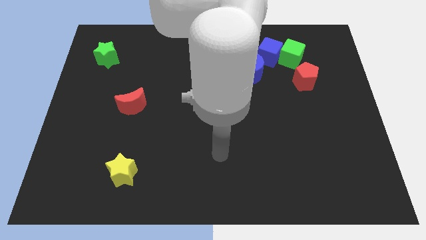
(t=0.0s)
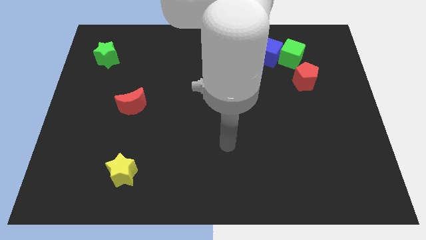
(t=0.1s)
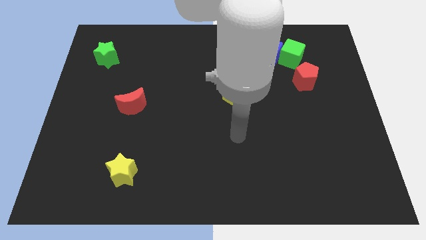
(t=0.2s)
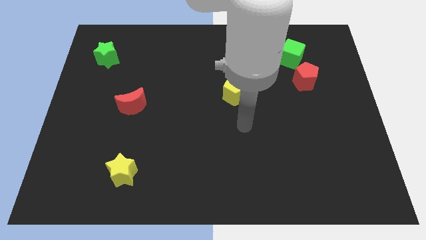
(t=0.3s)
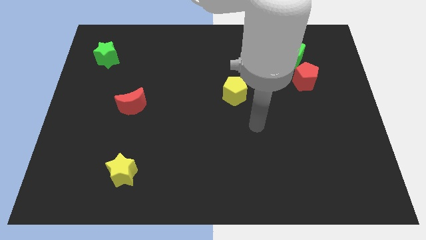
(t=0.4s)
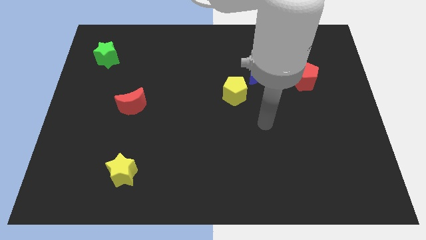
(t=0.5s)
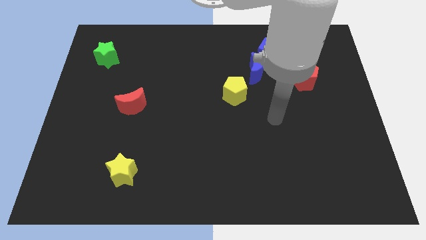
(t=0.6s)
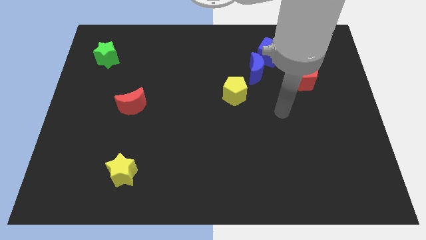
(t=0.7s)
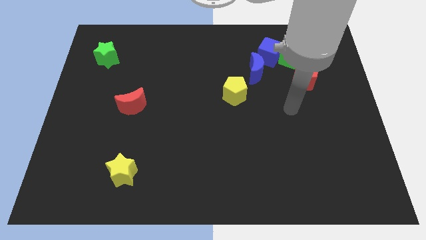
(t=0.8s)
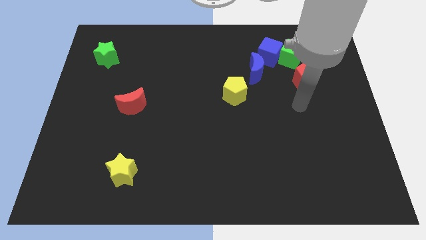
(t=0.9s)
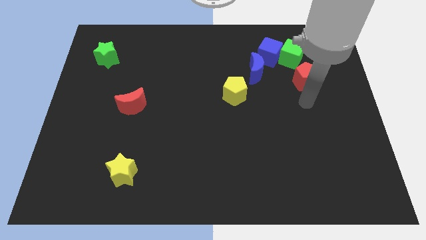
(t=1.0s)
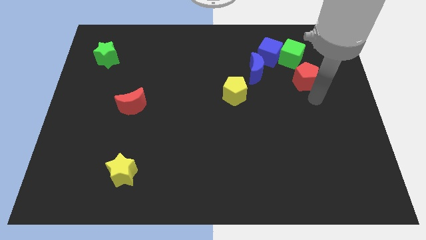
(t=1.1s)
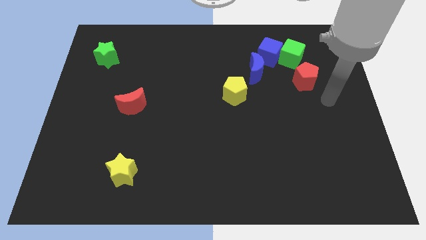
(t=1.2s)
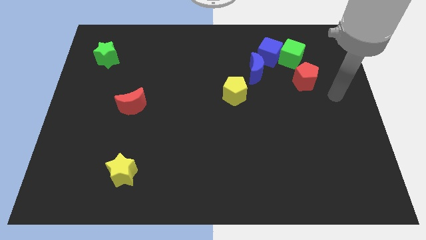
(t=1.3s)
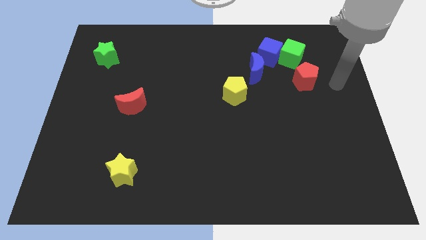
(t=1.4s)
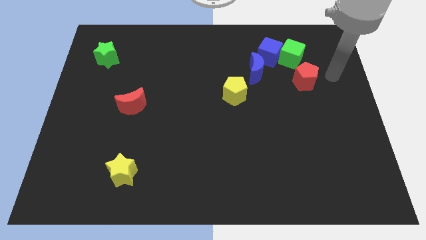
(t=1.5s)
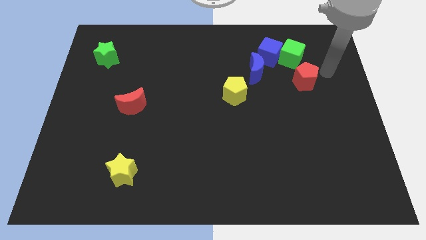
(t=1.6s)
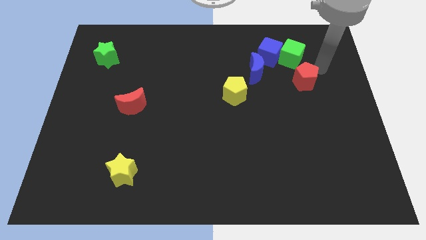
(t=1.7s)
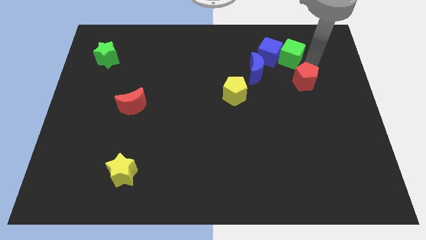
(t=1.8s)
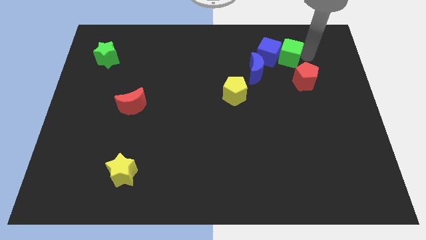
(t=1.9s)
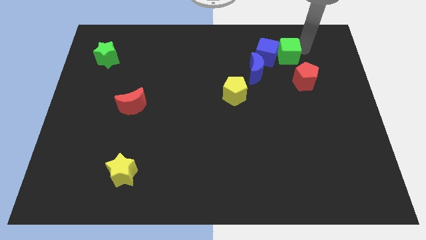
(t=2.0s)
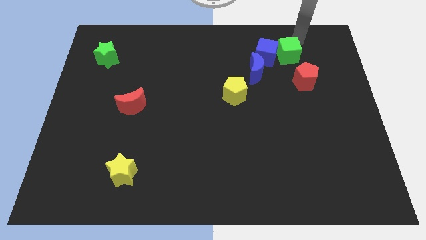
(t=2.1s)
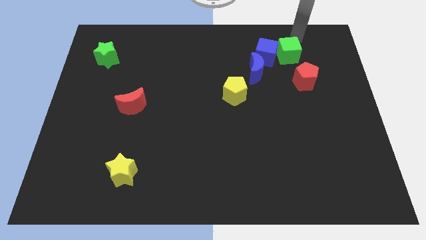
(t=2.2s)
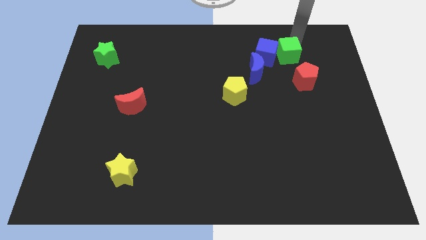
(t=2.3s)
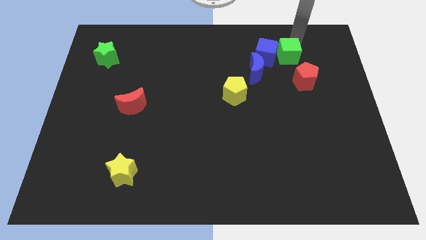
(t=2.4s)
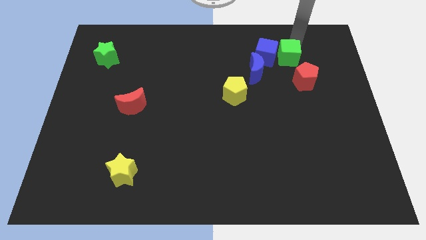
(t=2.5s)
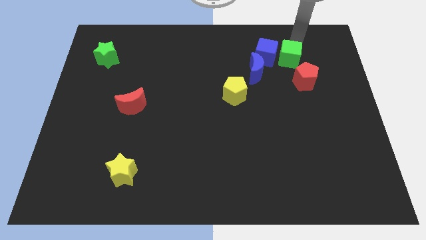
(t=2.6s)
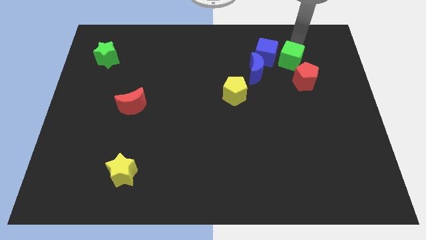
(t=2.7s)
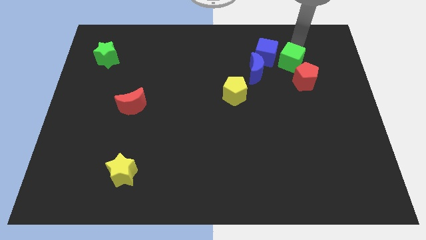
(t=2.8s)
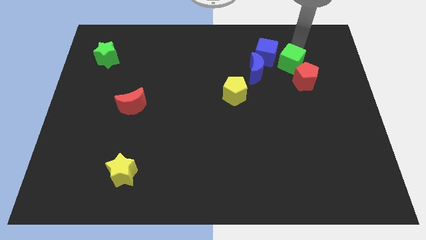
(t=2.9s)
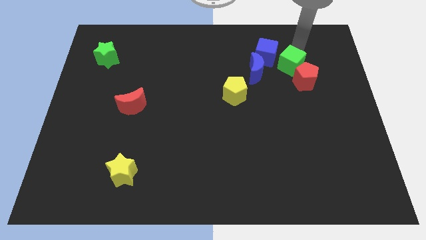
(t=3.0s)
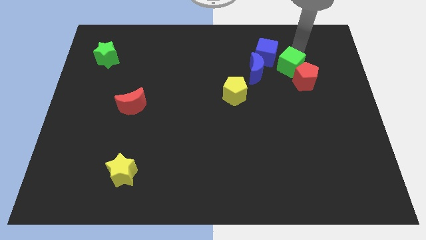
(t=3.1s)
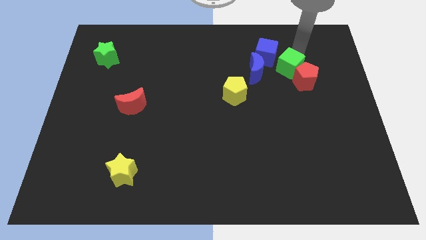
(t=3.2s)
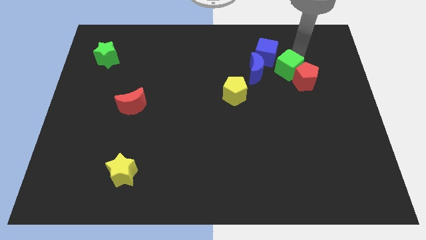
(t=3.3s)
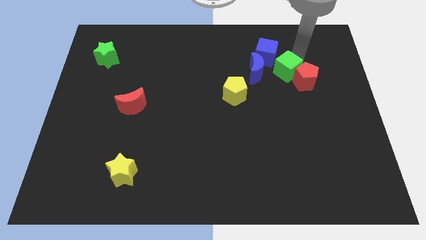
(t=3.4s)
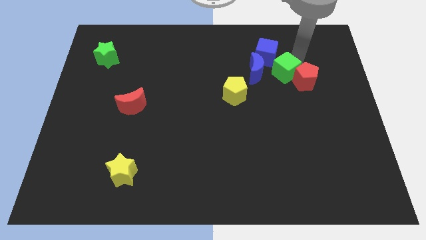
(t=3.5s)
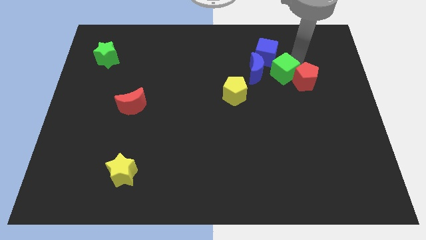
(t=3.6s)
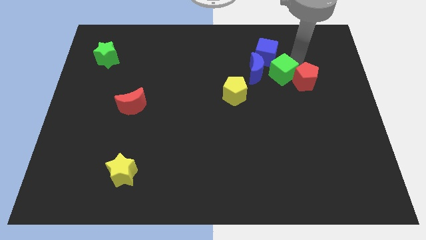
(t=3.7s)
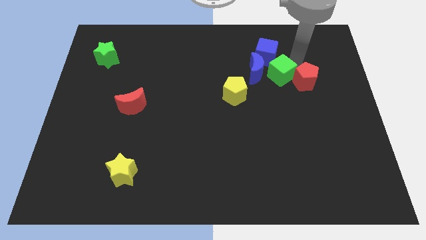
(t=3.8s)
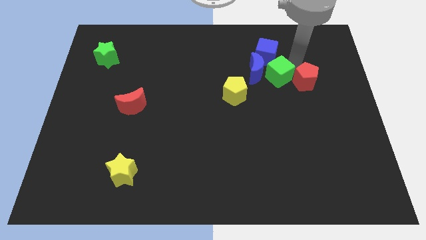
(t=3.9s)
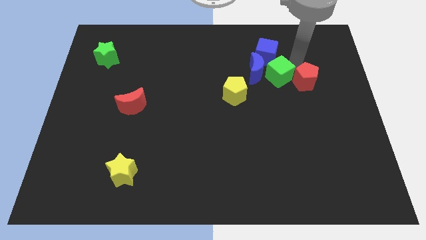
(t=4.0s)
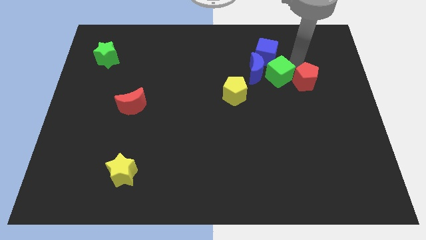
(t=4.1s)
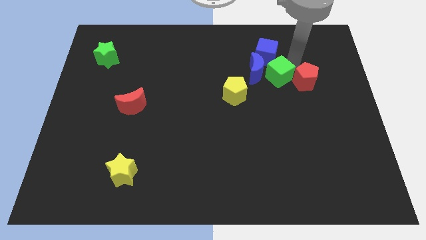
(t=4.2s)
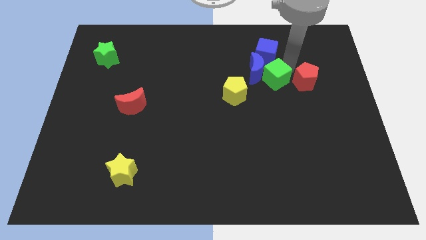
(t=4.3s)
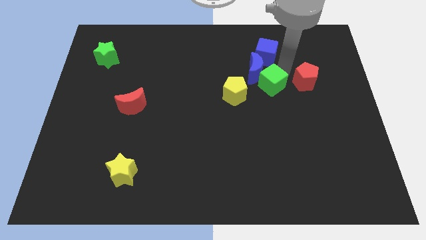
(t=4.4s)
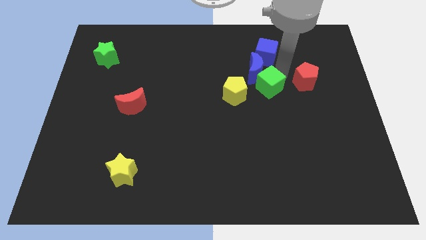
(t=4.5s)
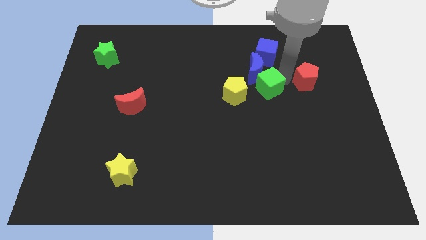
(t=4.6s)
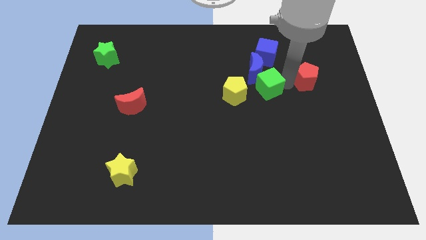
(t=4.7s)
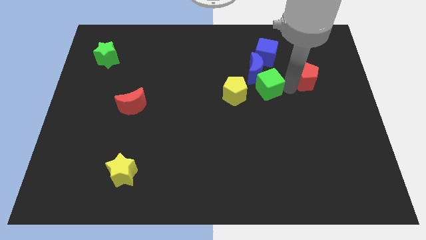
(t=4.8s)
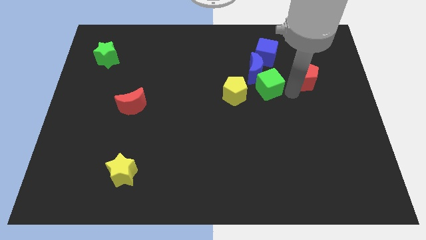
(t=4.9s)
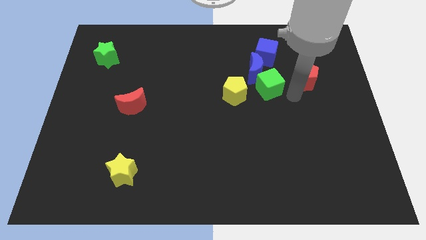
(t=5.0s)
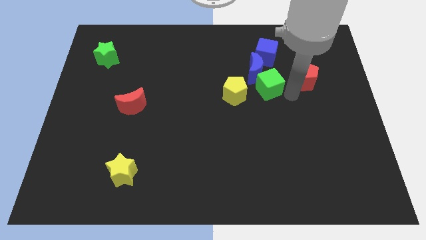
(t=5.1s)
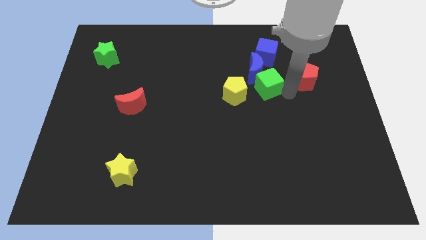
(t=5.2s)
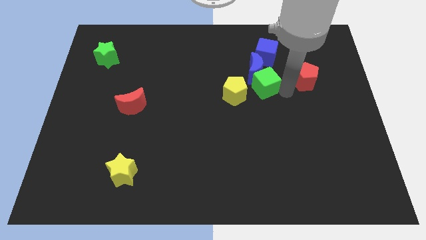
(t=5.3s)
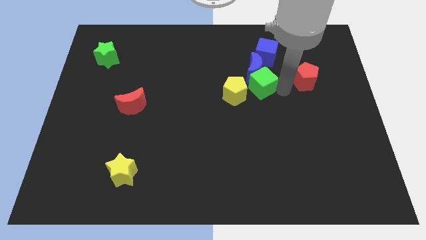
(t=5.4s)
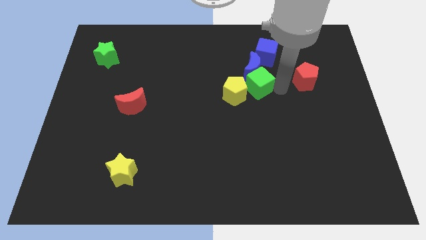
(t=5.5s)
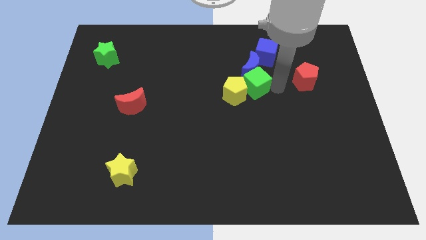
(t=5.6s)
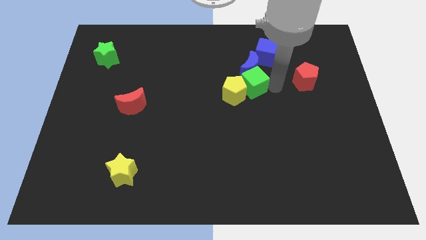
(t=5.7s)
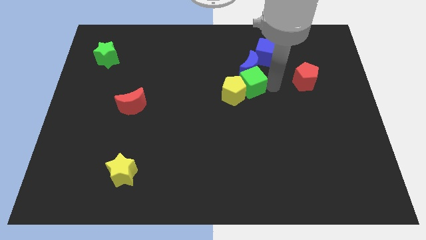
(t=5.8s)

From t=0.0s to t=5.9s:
put the green cube to the bottom left of the blue cube

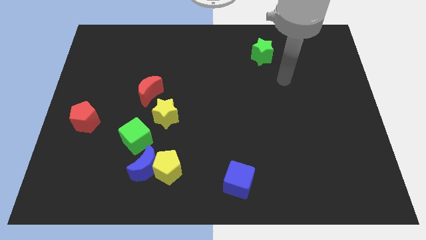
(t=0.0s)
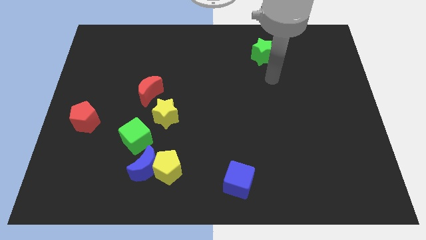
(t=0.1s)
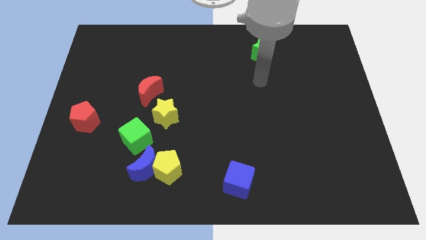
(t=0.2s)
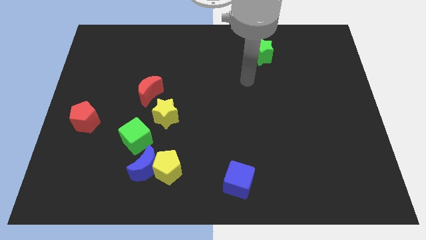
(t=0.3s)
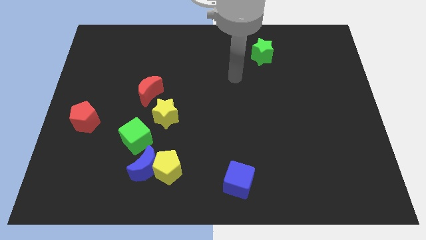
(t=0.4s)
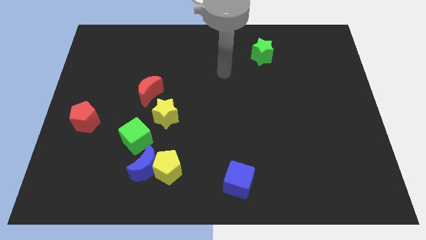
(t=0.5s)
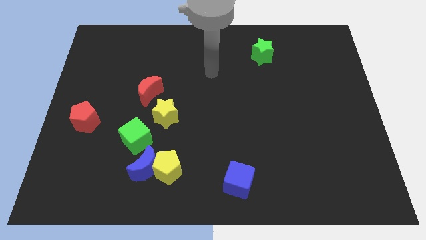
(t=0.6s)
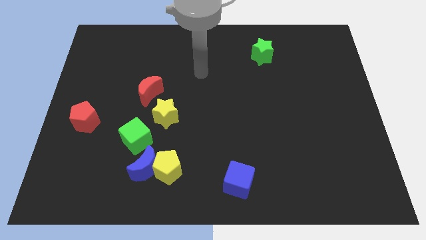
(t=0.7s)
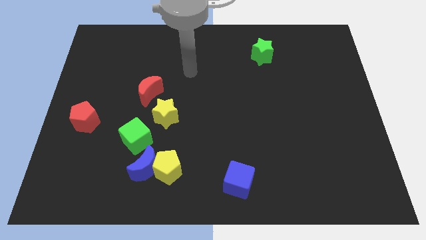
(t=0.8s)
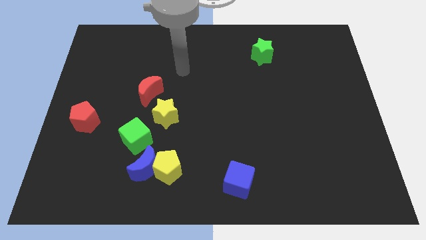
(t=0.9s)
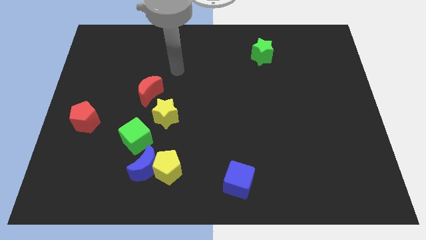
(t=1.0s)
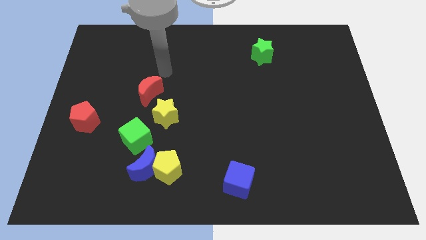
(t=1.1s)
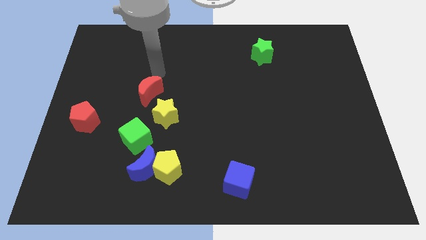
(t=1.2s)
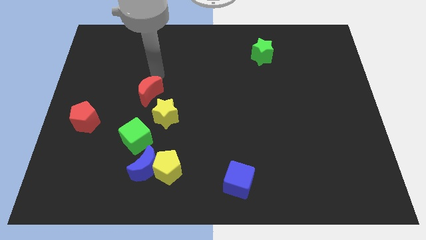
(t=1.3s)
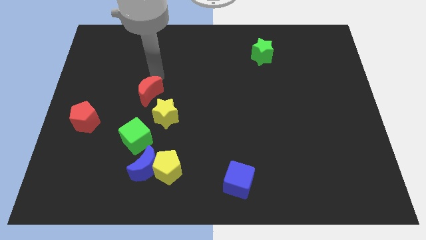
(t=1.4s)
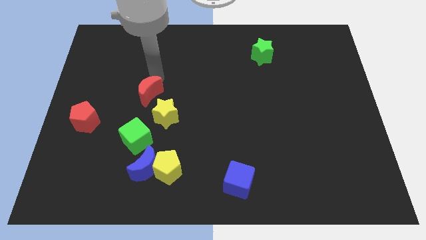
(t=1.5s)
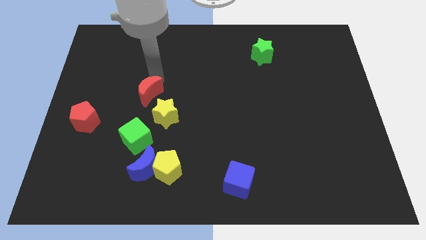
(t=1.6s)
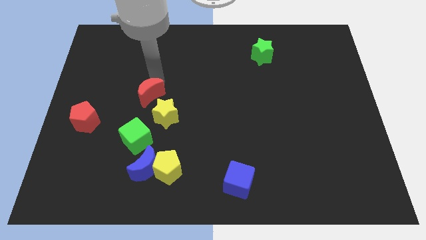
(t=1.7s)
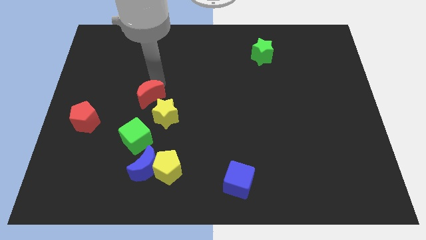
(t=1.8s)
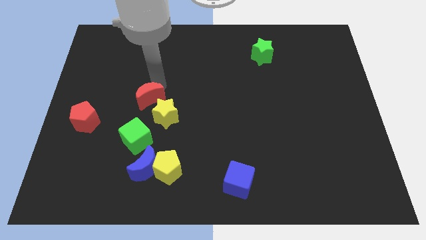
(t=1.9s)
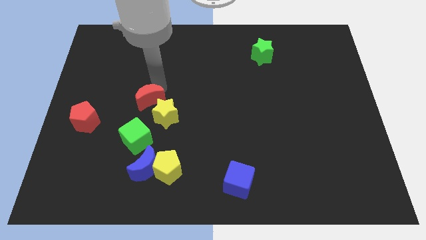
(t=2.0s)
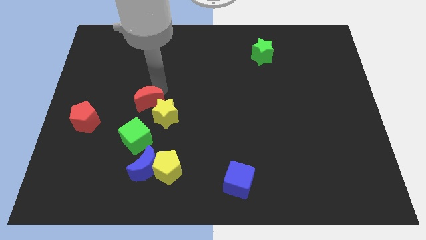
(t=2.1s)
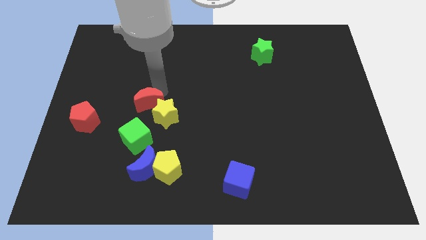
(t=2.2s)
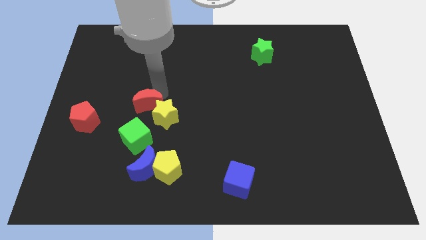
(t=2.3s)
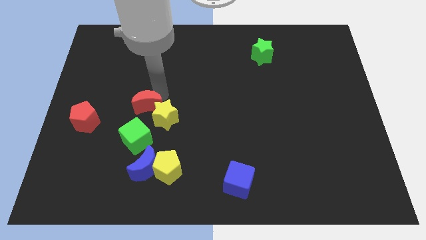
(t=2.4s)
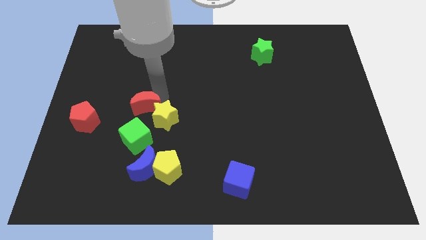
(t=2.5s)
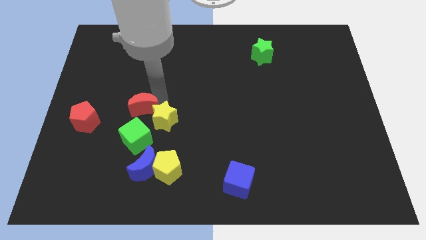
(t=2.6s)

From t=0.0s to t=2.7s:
put the red moon above the blue moon
